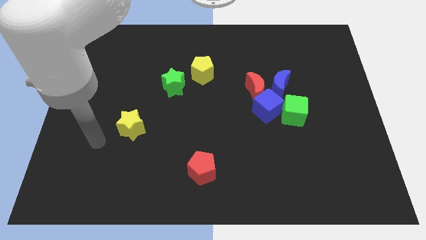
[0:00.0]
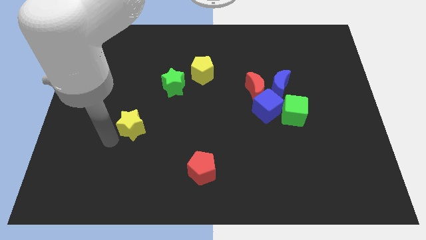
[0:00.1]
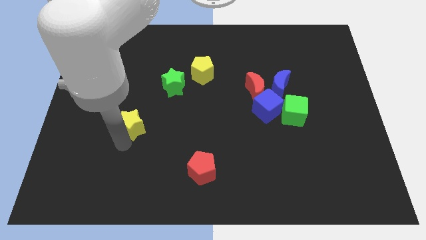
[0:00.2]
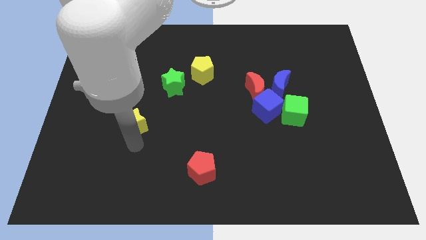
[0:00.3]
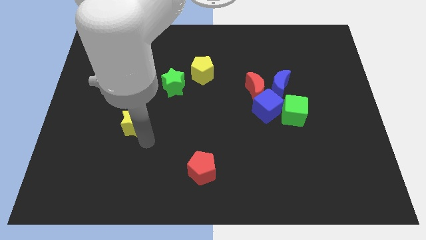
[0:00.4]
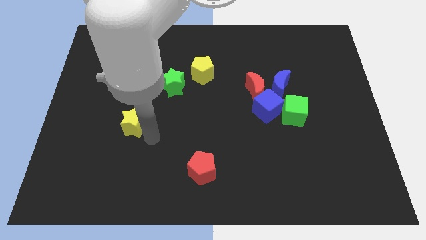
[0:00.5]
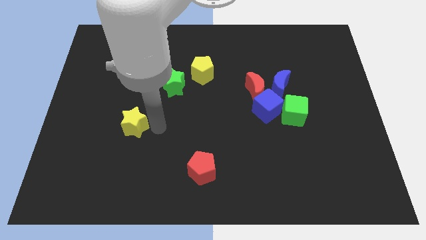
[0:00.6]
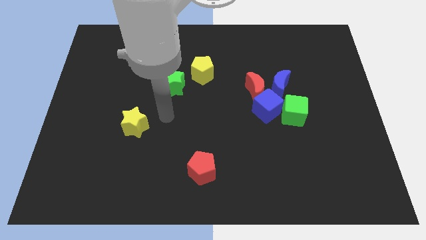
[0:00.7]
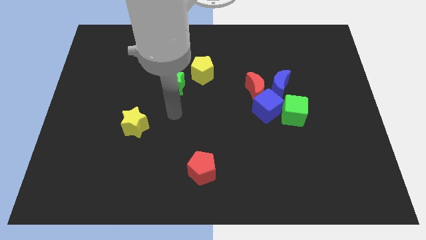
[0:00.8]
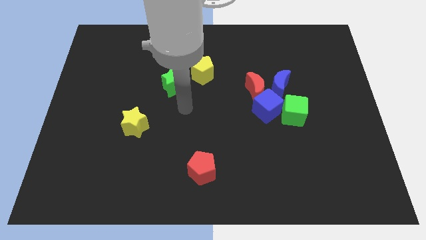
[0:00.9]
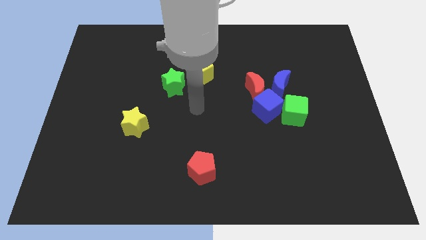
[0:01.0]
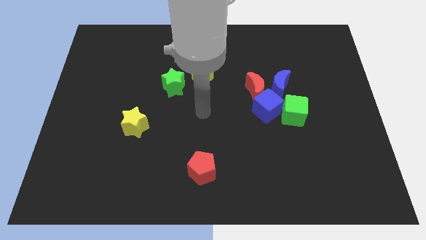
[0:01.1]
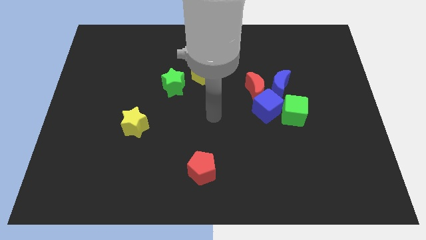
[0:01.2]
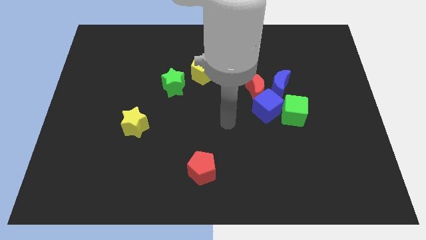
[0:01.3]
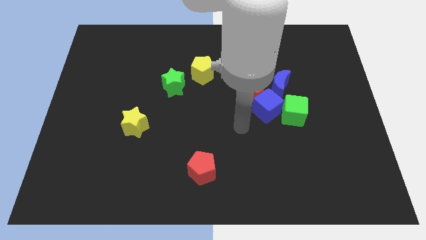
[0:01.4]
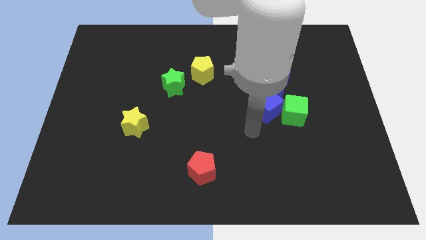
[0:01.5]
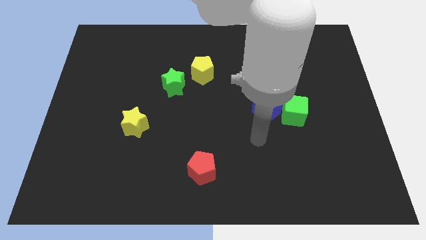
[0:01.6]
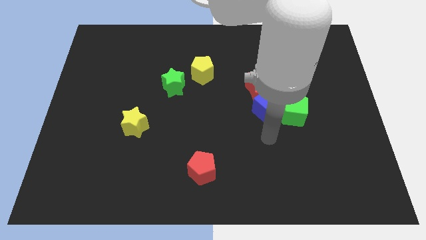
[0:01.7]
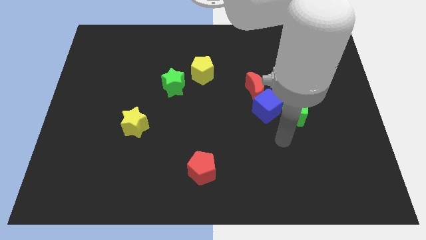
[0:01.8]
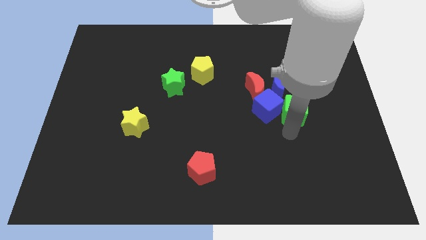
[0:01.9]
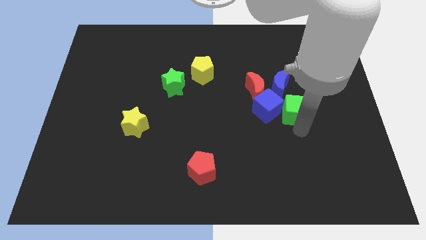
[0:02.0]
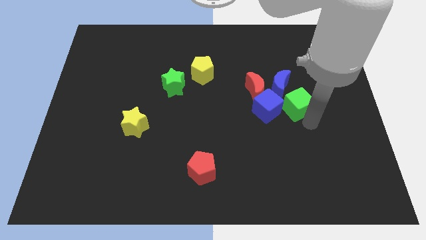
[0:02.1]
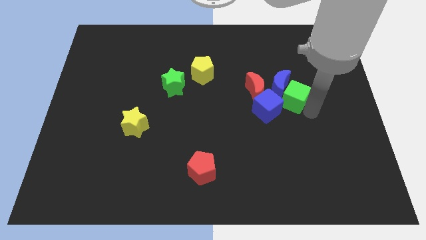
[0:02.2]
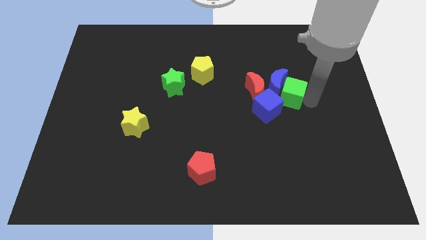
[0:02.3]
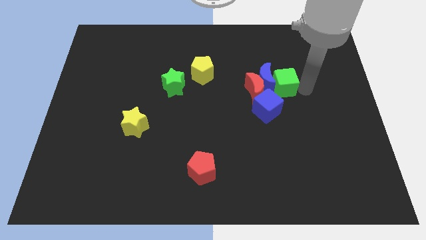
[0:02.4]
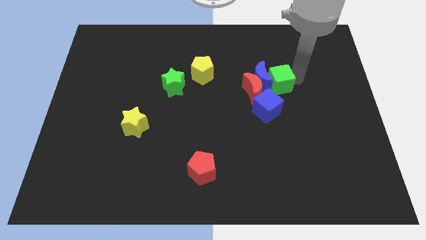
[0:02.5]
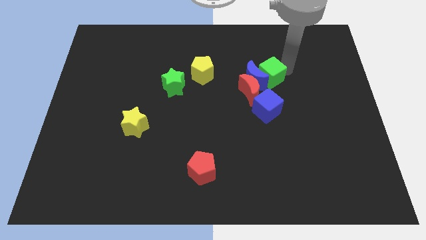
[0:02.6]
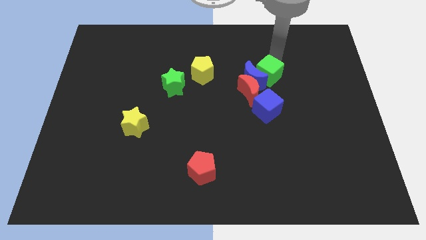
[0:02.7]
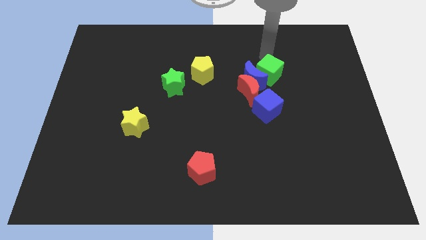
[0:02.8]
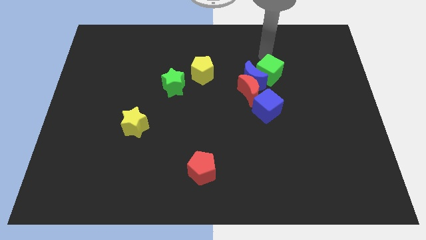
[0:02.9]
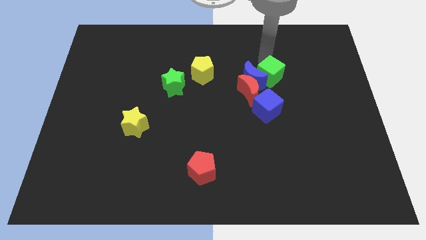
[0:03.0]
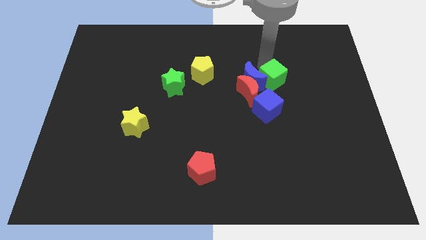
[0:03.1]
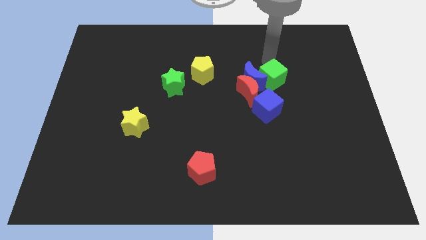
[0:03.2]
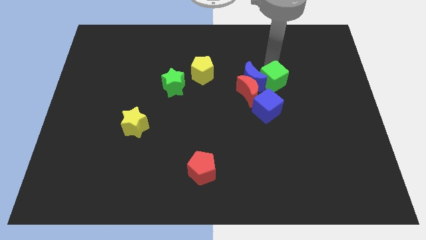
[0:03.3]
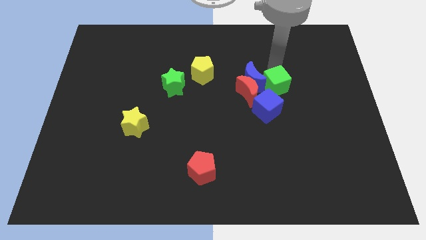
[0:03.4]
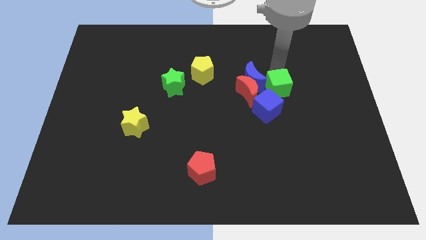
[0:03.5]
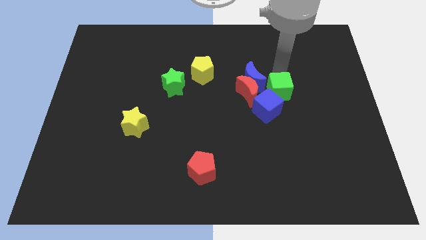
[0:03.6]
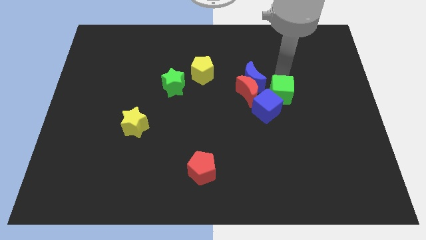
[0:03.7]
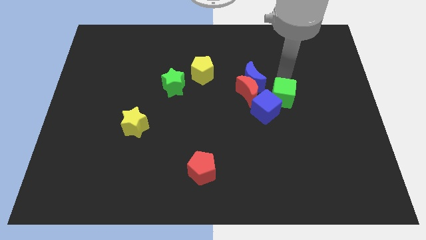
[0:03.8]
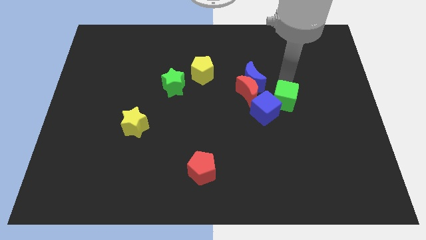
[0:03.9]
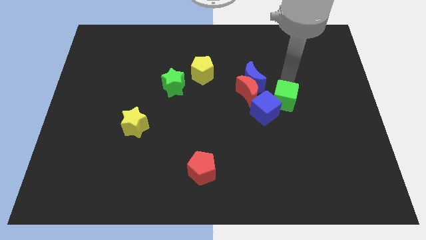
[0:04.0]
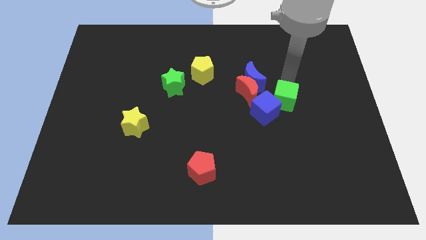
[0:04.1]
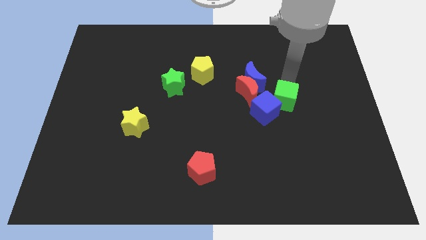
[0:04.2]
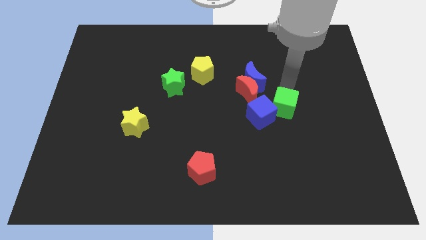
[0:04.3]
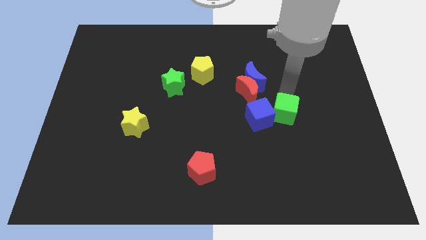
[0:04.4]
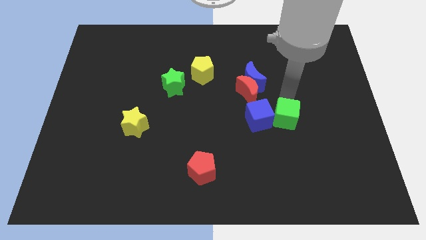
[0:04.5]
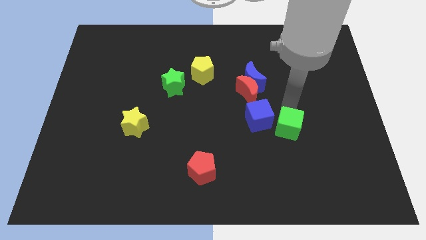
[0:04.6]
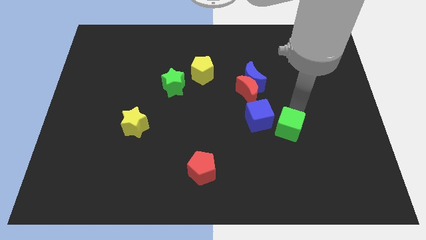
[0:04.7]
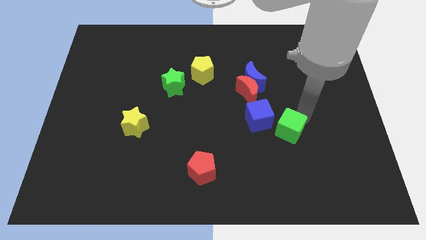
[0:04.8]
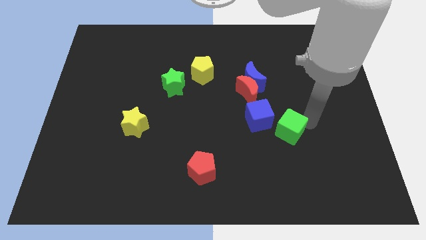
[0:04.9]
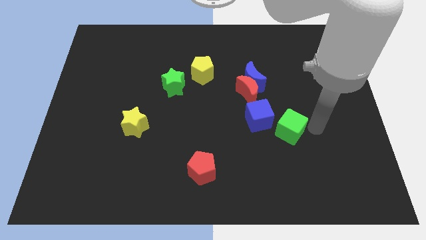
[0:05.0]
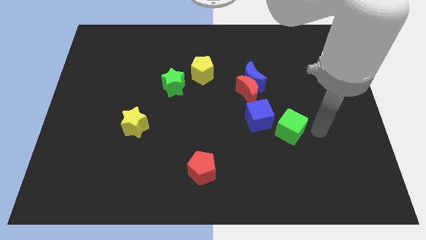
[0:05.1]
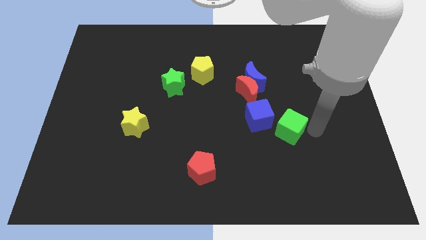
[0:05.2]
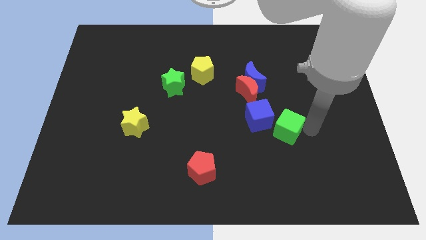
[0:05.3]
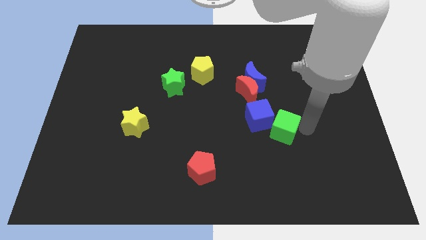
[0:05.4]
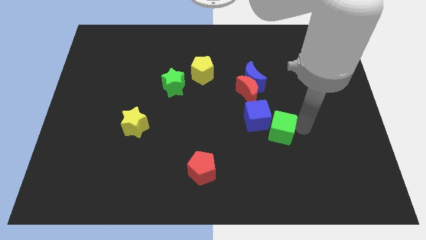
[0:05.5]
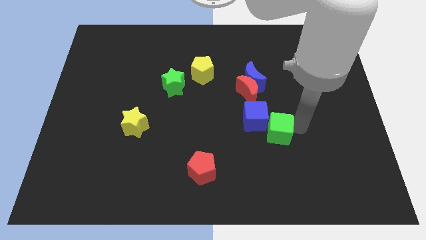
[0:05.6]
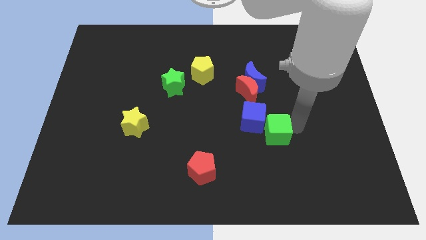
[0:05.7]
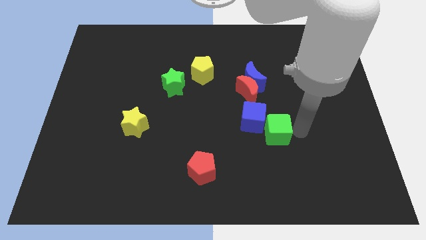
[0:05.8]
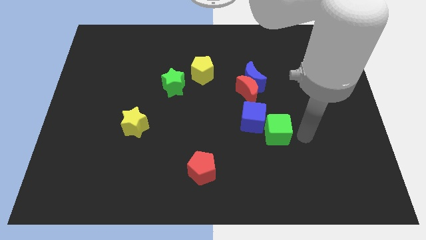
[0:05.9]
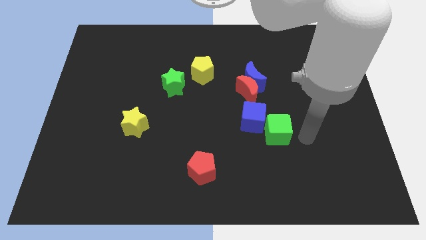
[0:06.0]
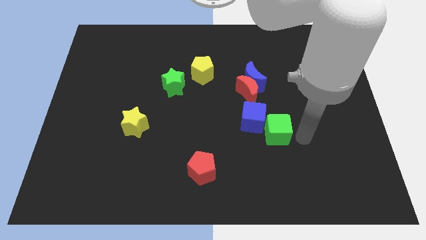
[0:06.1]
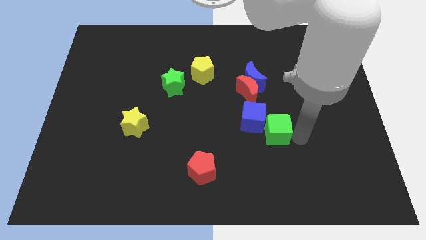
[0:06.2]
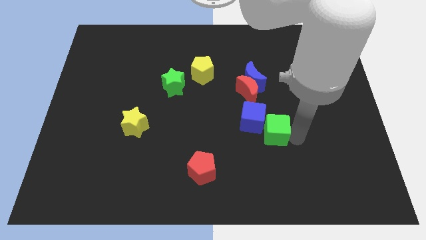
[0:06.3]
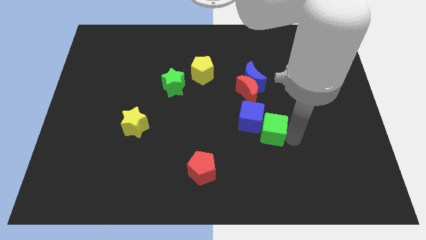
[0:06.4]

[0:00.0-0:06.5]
push the green cube below the red moon

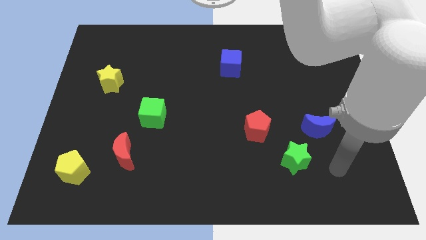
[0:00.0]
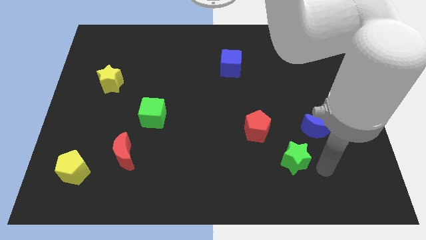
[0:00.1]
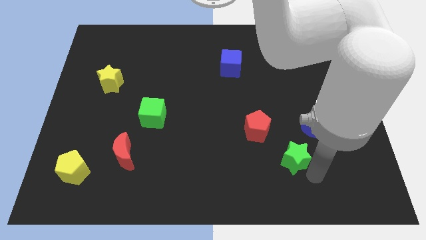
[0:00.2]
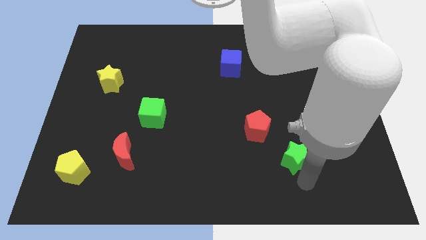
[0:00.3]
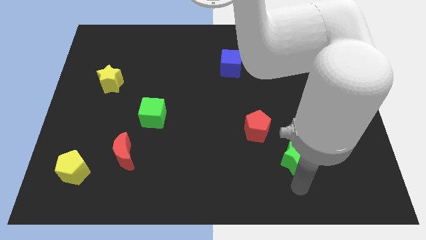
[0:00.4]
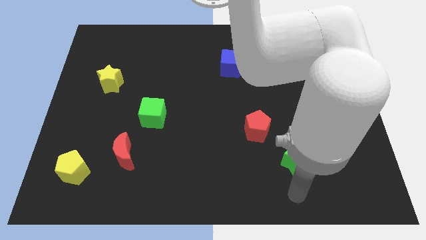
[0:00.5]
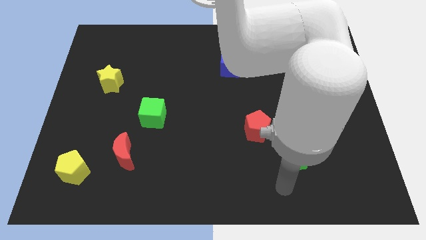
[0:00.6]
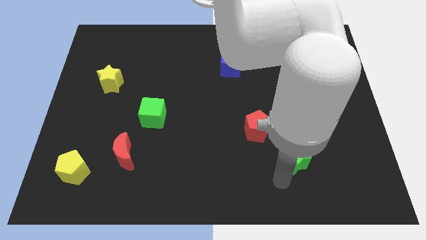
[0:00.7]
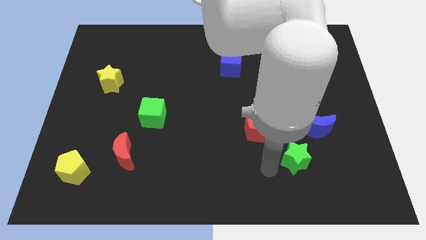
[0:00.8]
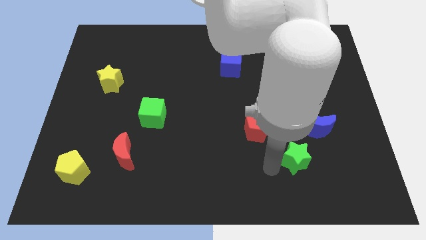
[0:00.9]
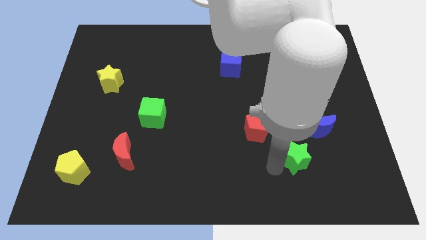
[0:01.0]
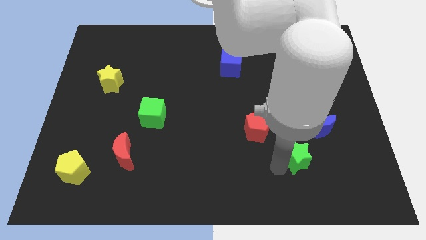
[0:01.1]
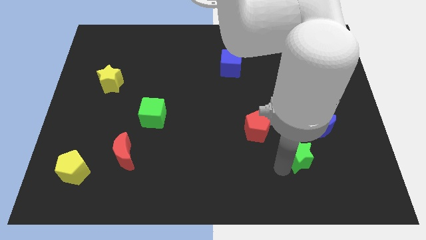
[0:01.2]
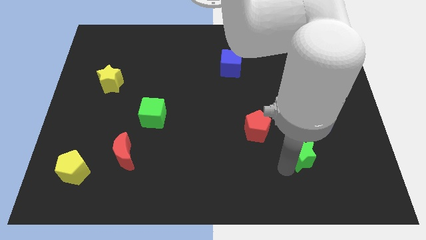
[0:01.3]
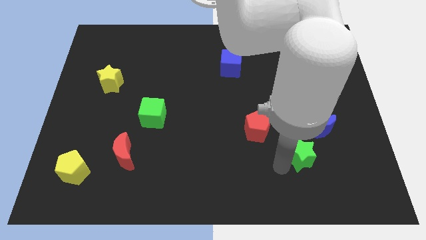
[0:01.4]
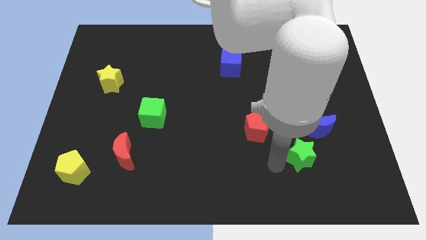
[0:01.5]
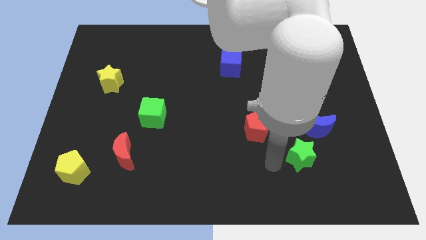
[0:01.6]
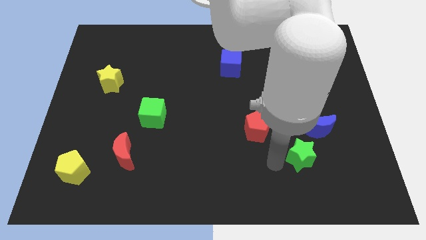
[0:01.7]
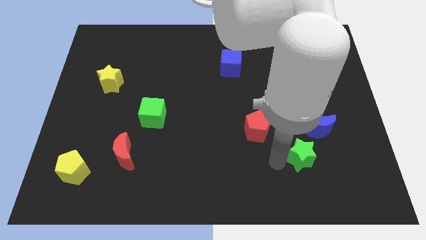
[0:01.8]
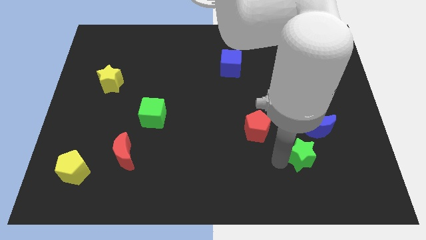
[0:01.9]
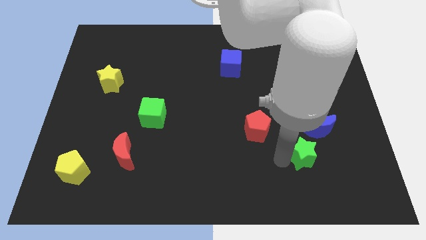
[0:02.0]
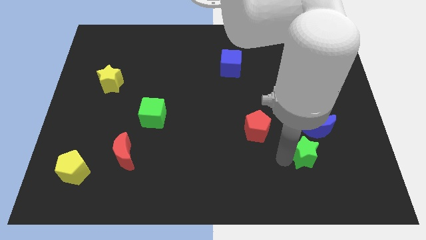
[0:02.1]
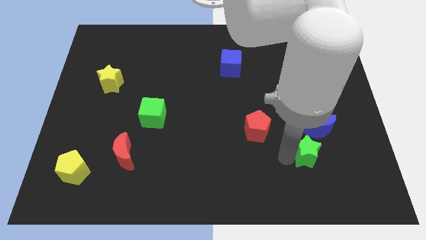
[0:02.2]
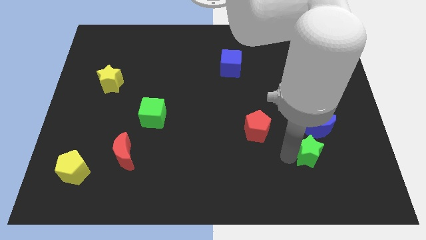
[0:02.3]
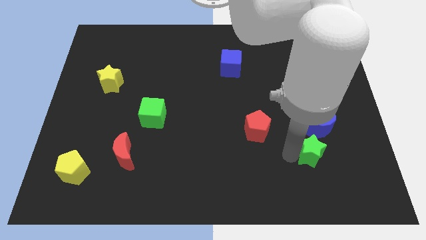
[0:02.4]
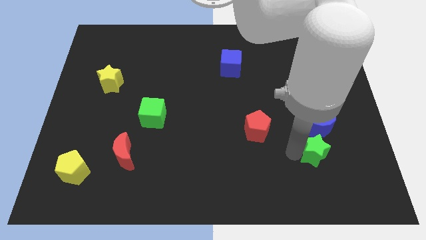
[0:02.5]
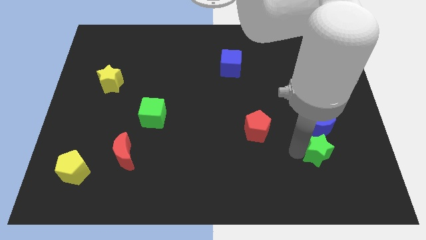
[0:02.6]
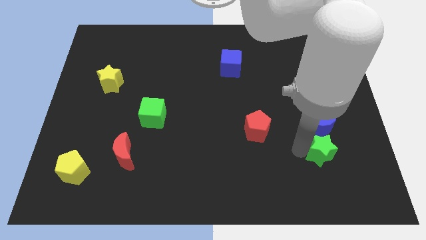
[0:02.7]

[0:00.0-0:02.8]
push the green star to the bottom right of the blue moon
